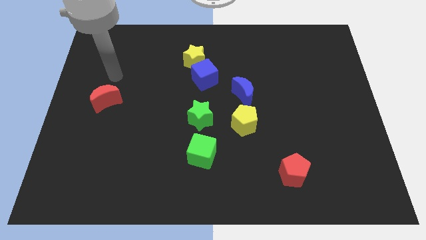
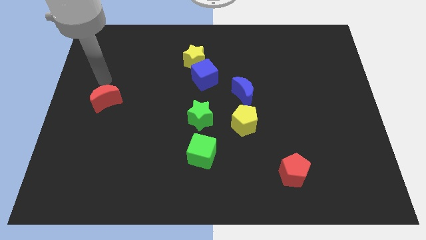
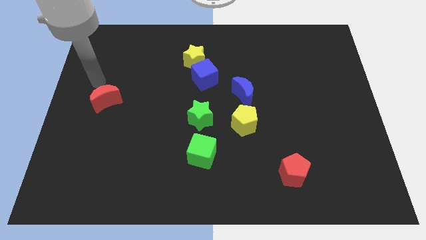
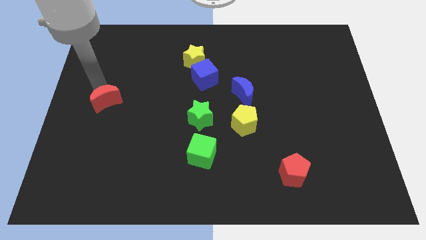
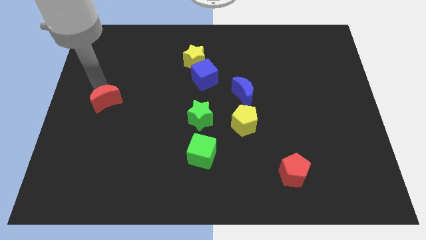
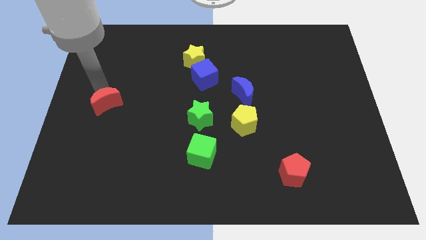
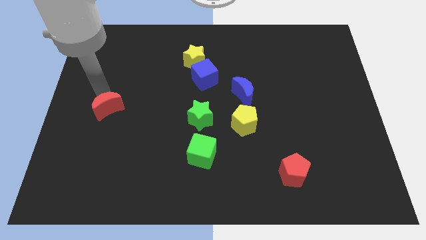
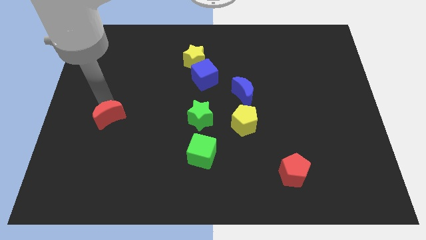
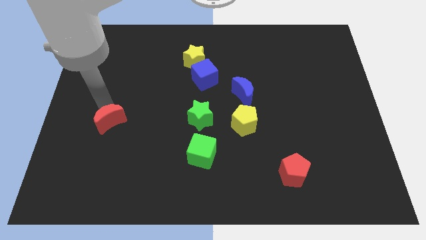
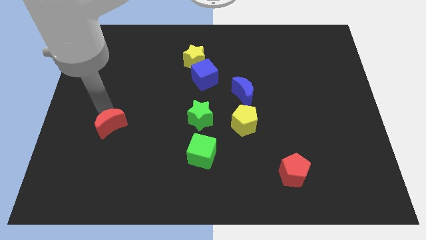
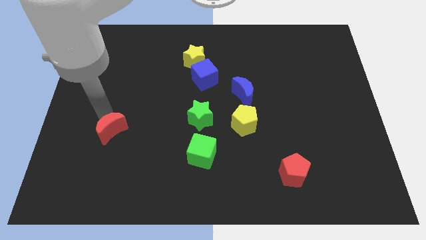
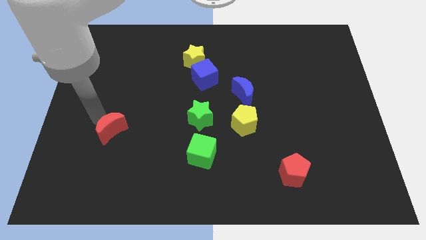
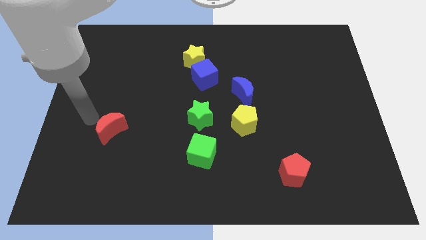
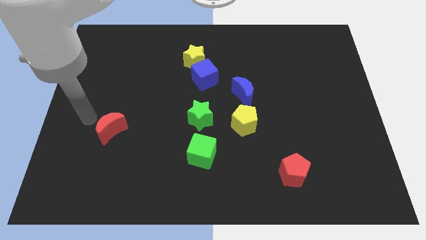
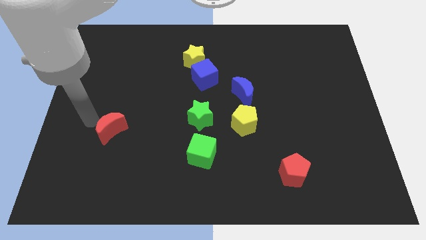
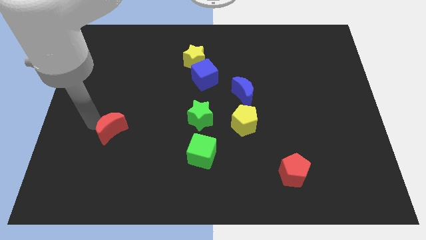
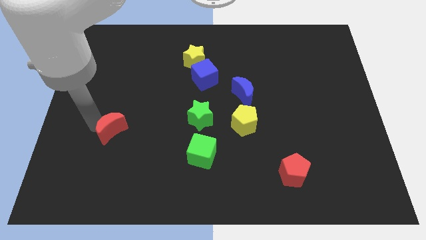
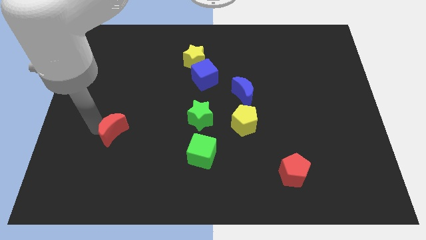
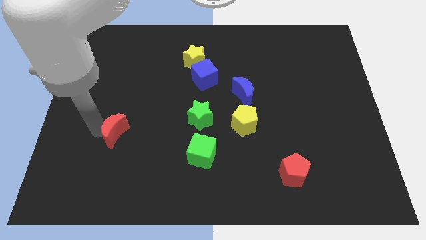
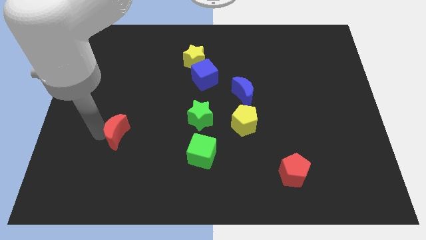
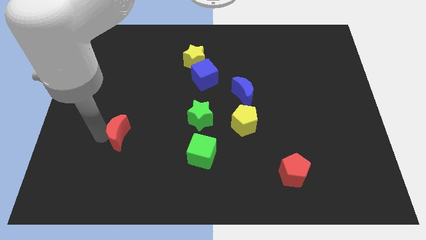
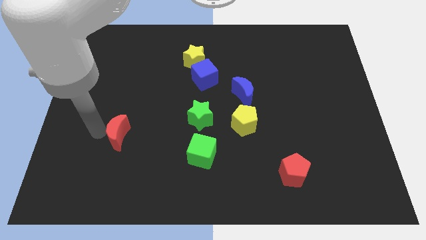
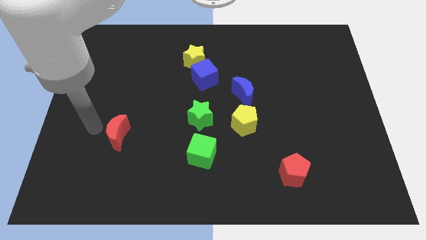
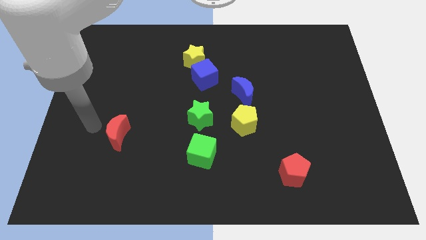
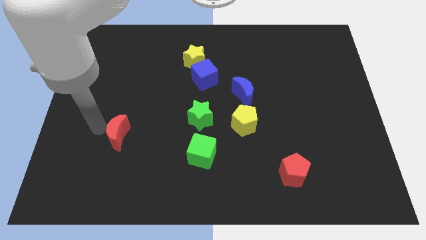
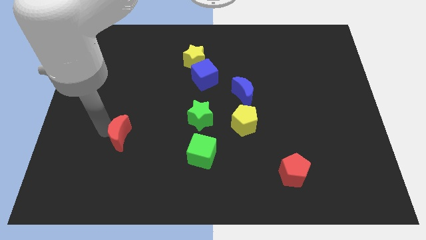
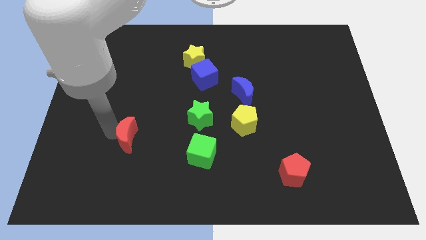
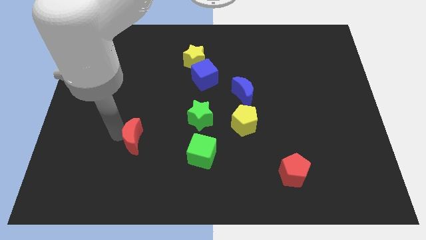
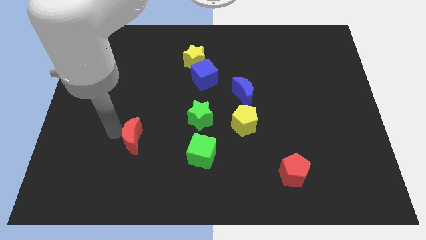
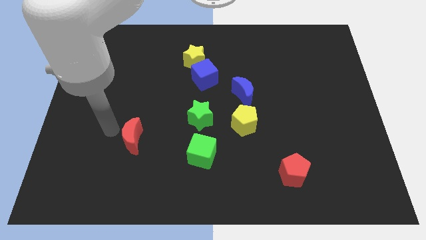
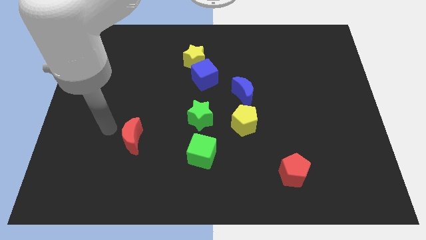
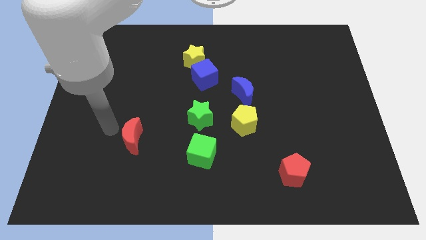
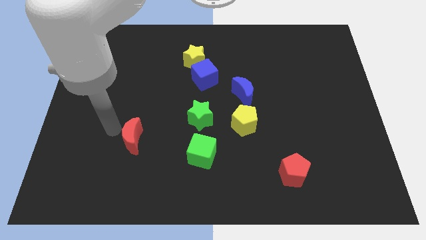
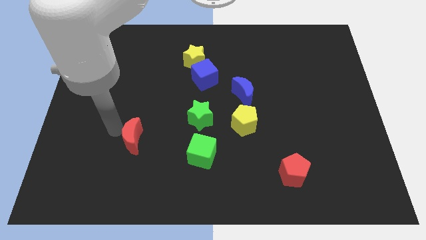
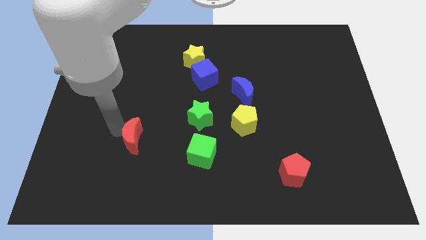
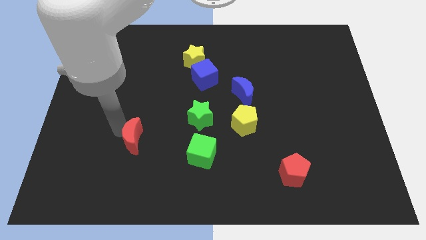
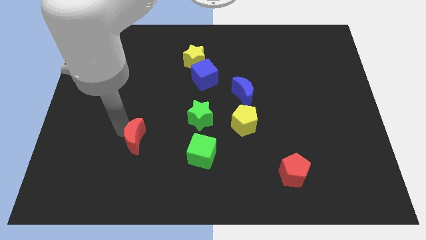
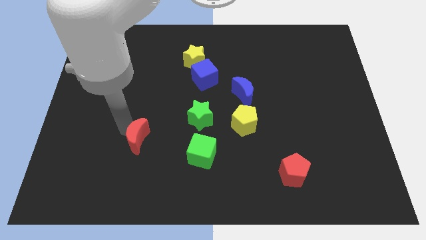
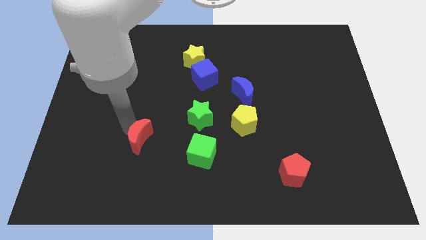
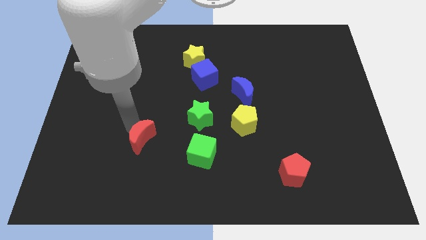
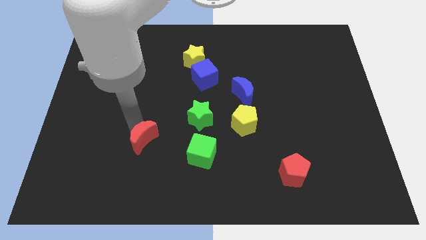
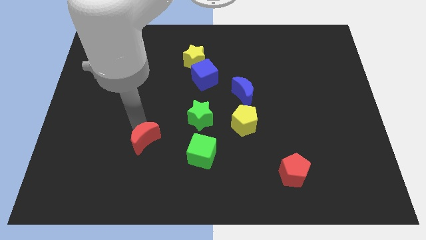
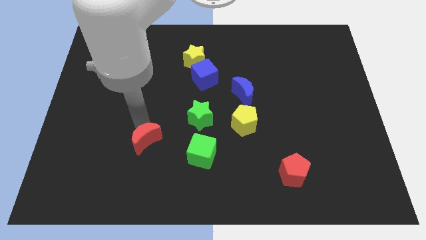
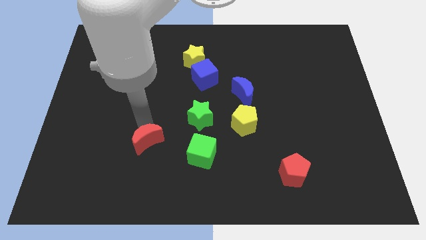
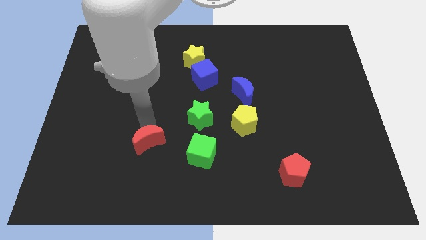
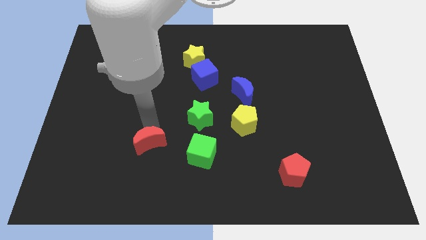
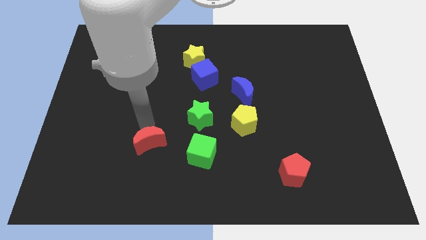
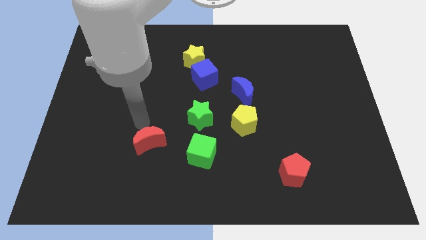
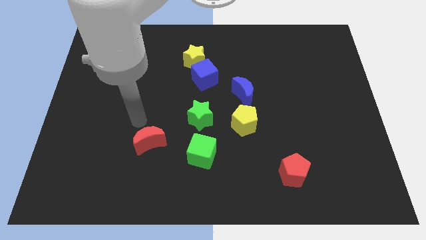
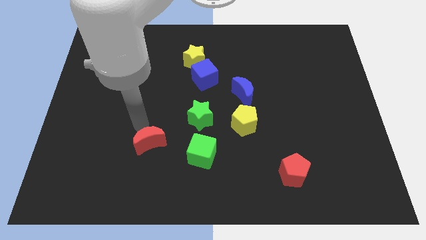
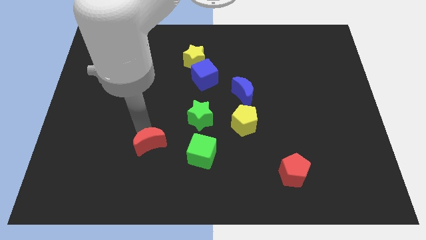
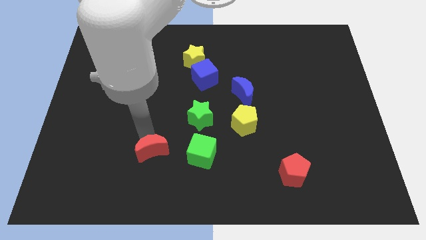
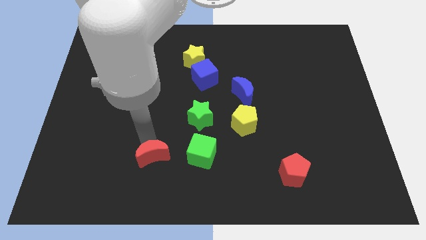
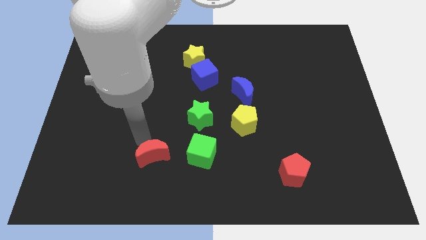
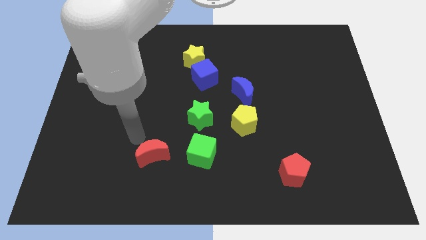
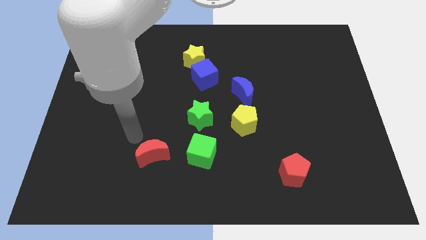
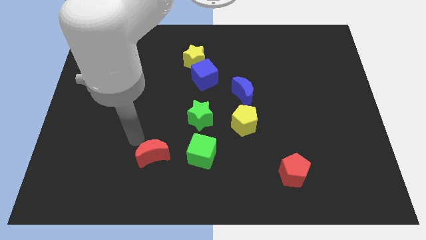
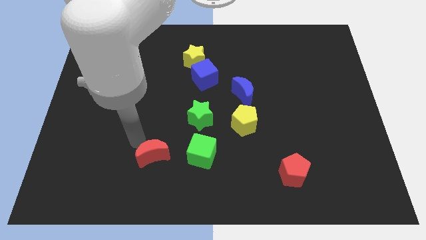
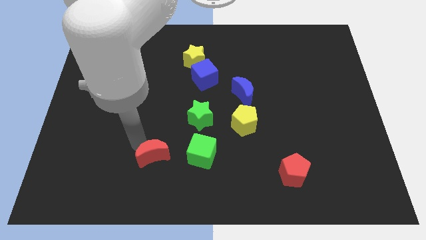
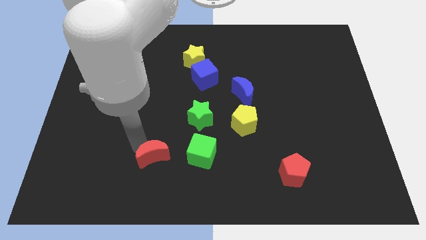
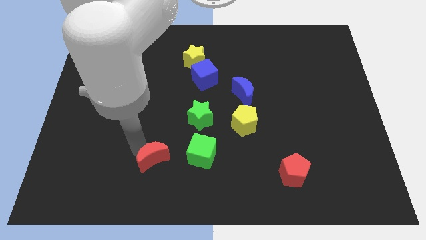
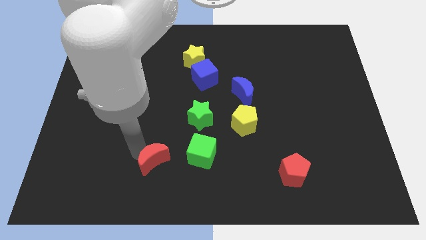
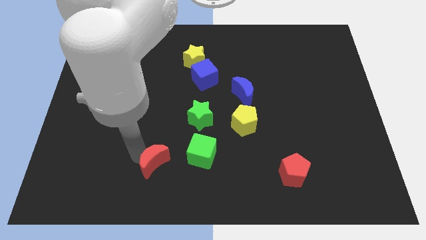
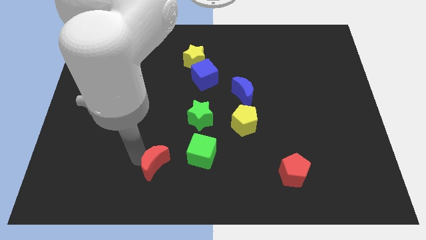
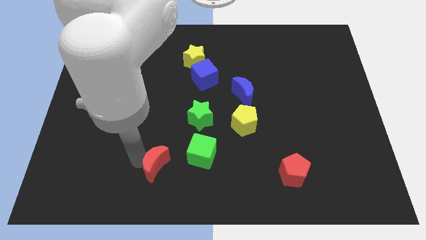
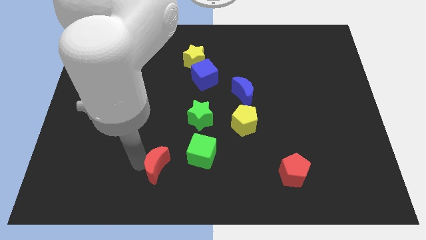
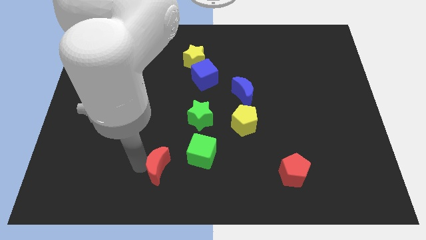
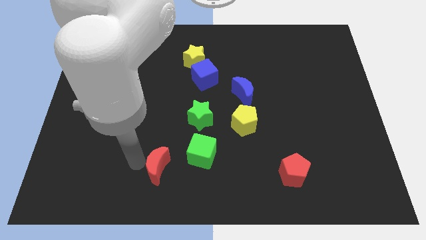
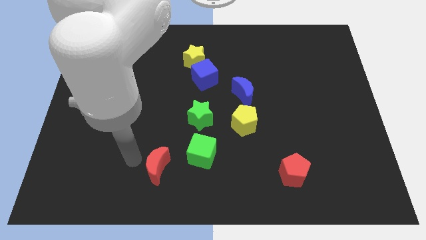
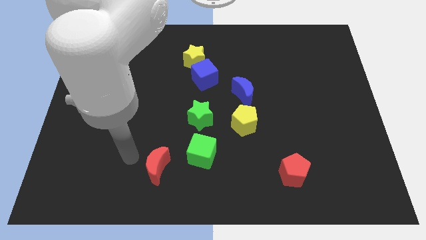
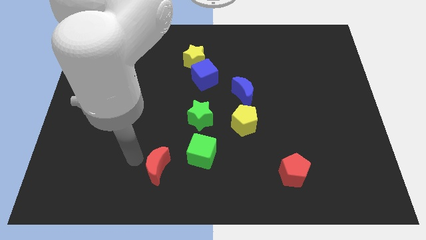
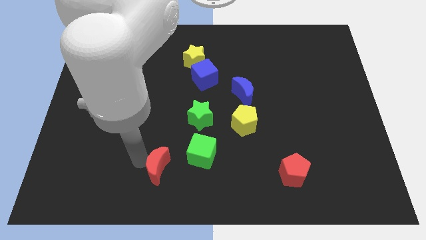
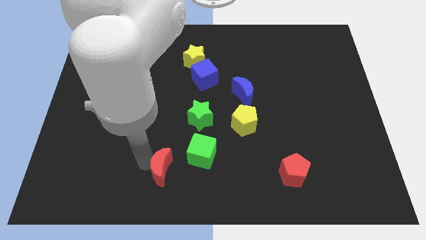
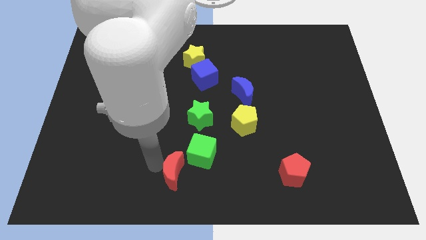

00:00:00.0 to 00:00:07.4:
slide the red moon to the bottom
